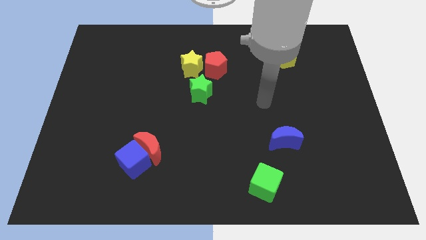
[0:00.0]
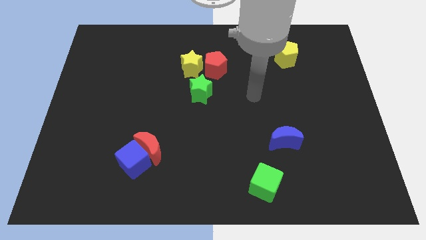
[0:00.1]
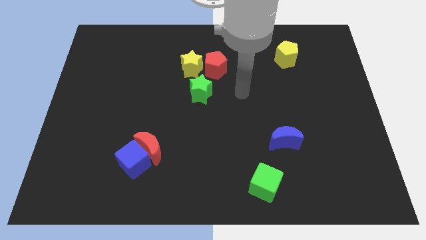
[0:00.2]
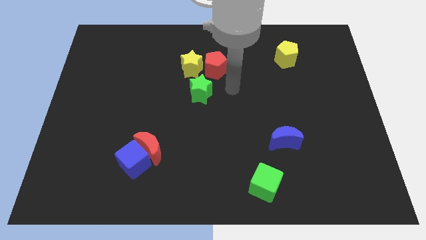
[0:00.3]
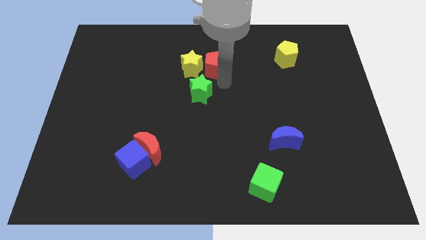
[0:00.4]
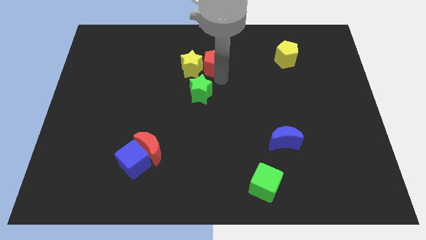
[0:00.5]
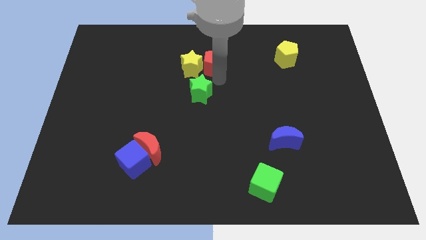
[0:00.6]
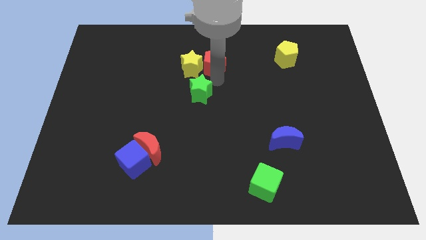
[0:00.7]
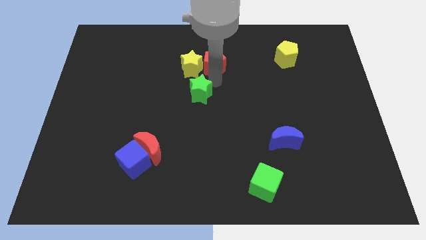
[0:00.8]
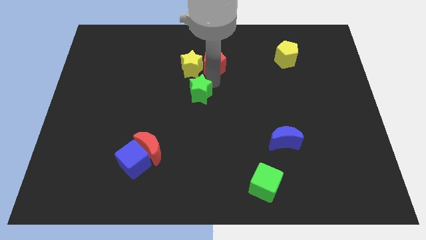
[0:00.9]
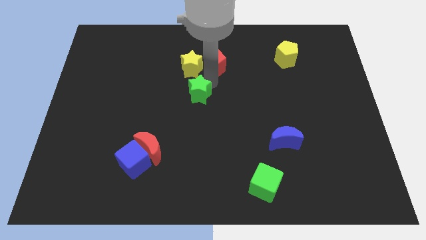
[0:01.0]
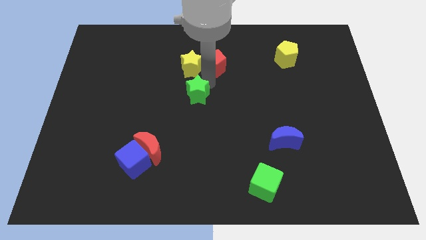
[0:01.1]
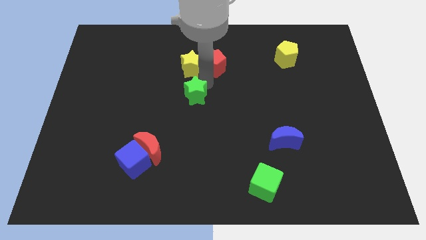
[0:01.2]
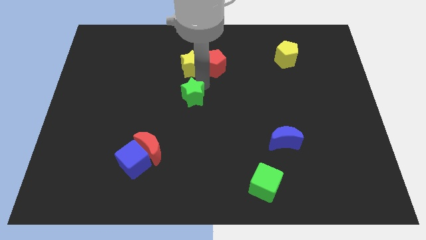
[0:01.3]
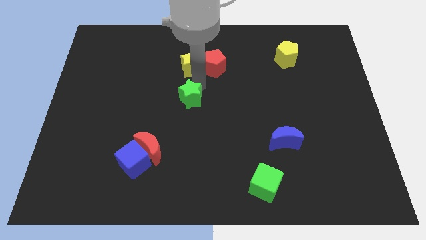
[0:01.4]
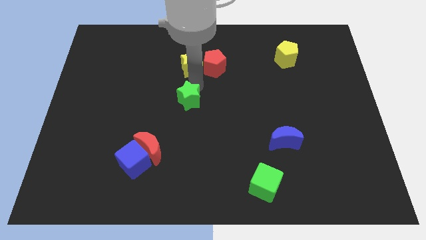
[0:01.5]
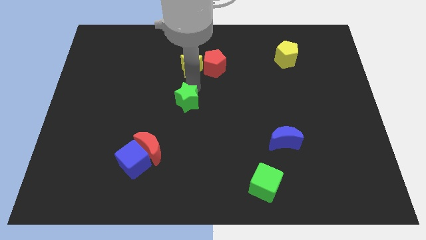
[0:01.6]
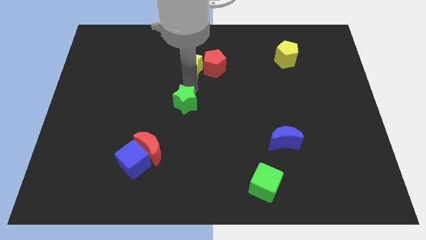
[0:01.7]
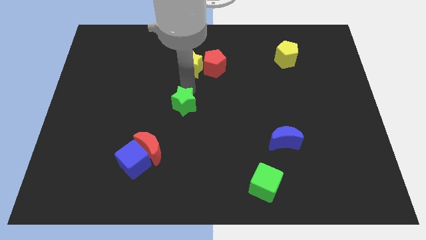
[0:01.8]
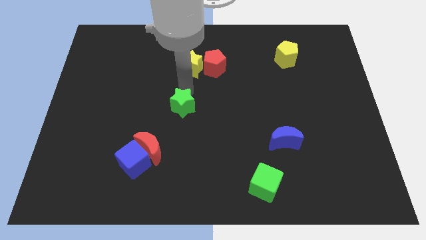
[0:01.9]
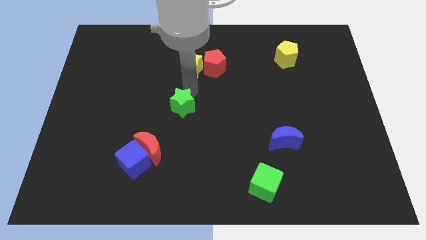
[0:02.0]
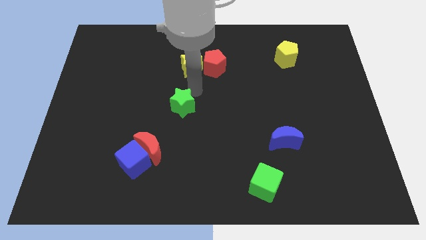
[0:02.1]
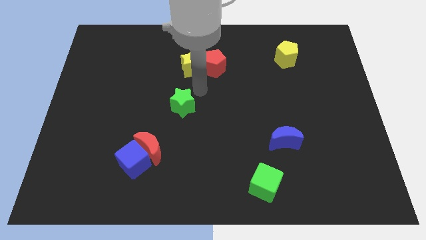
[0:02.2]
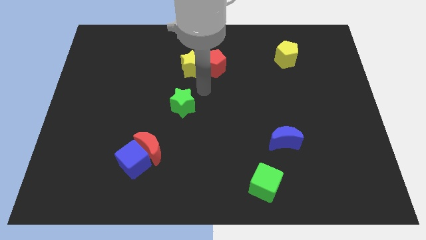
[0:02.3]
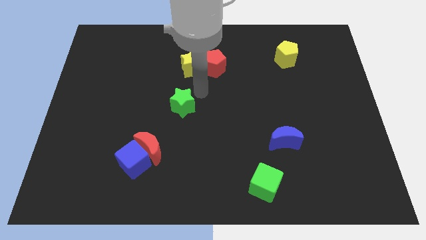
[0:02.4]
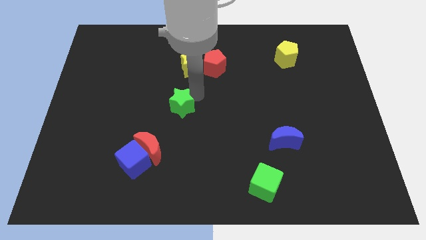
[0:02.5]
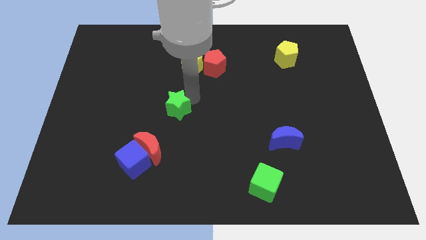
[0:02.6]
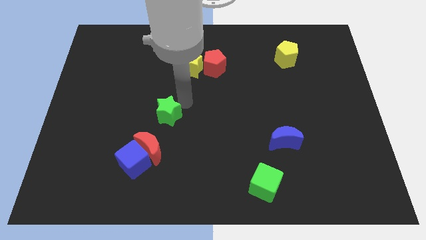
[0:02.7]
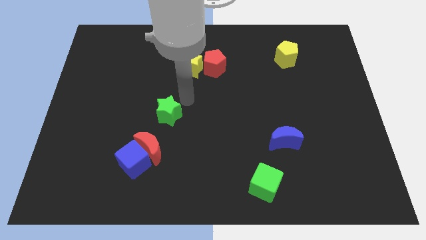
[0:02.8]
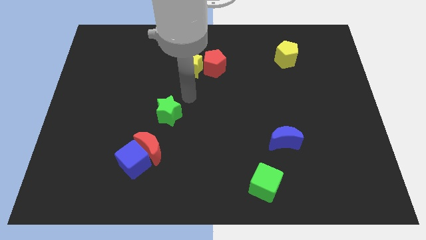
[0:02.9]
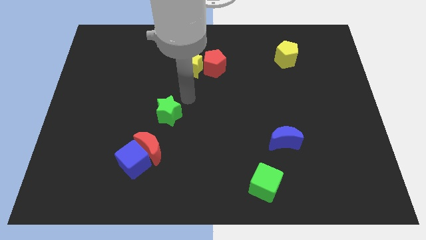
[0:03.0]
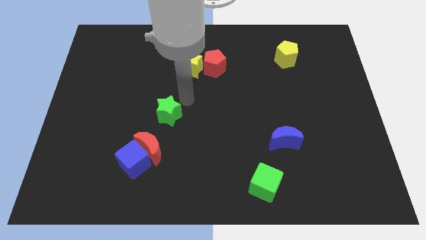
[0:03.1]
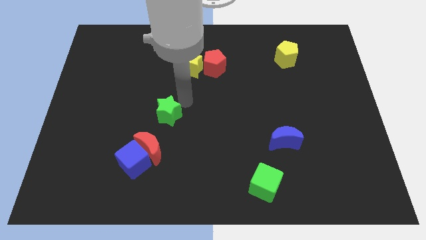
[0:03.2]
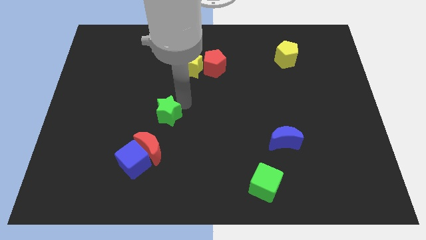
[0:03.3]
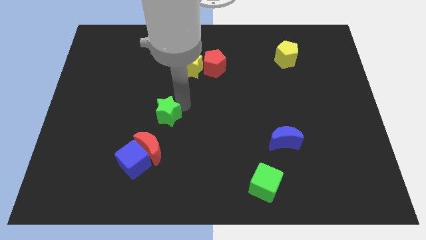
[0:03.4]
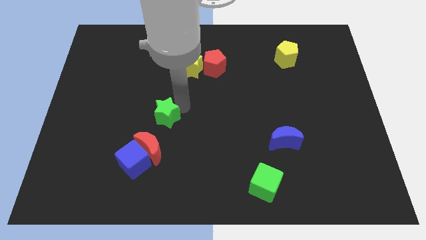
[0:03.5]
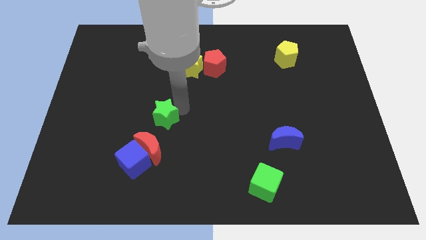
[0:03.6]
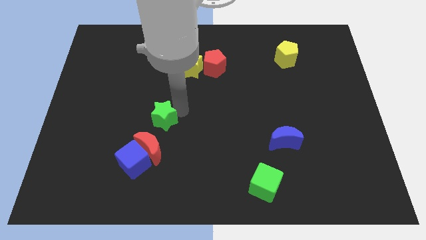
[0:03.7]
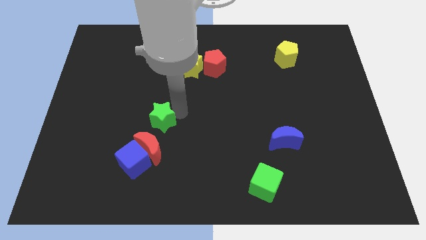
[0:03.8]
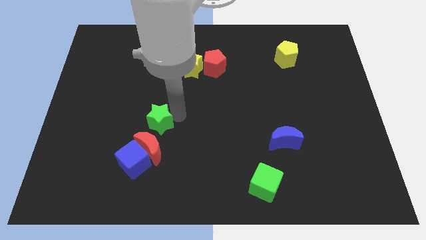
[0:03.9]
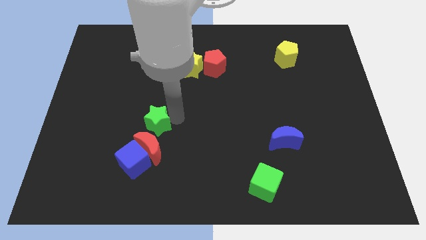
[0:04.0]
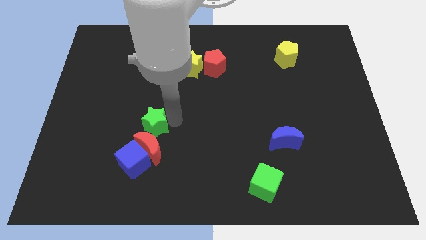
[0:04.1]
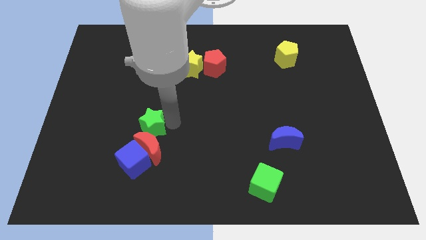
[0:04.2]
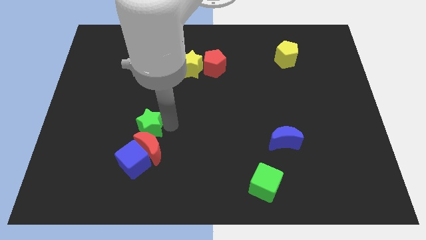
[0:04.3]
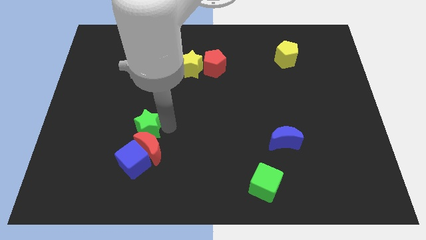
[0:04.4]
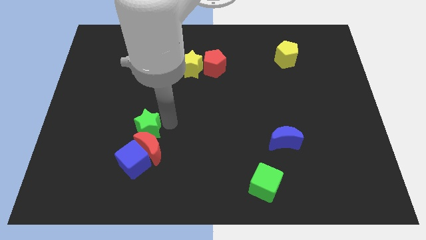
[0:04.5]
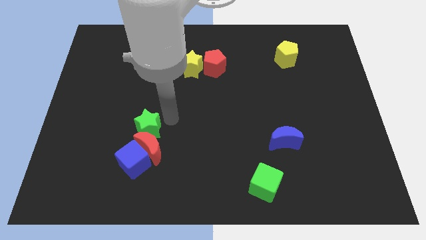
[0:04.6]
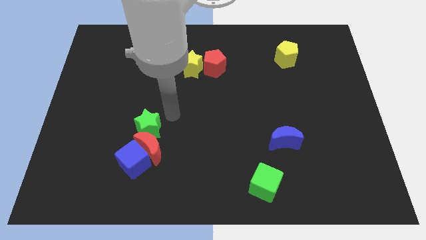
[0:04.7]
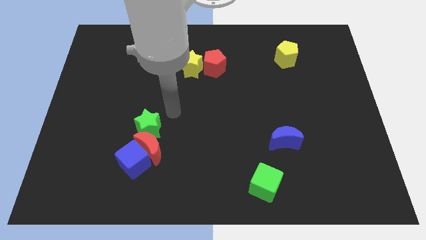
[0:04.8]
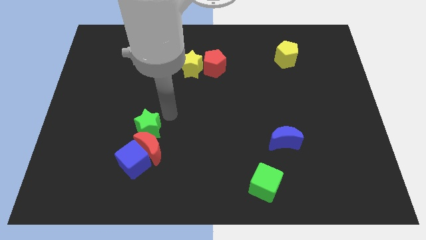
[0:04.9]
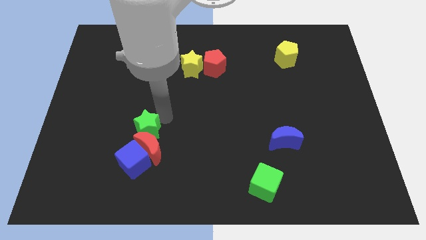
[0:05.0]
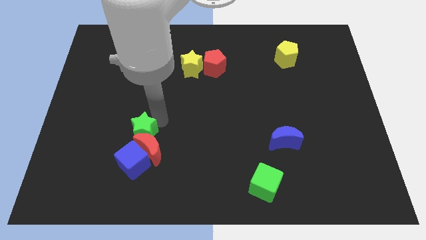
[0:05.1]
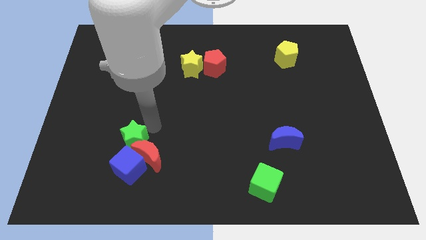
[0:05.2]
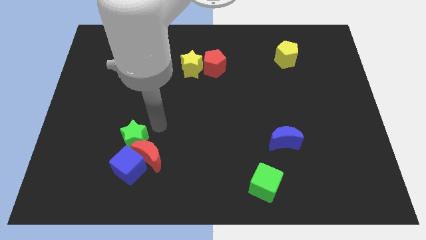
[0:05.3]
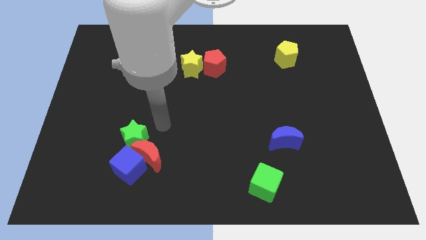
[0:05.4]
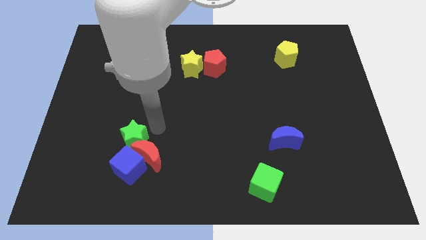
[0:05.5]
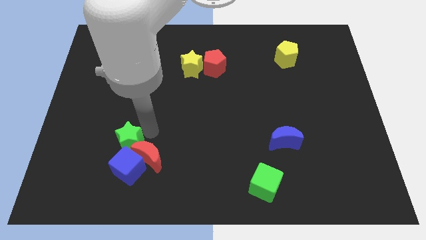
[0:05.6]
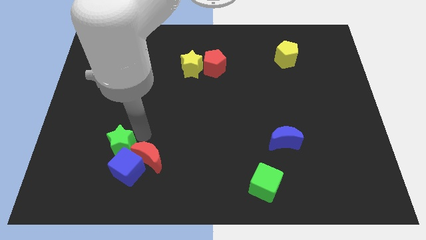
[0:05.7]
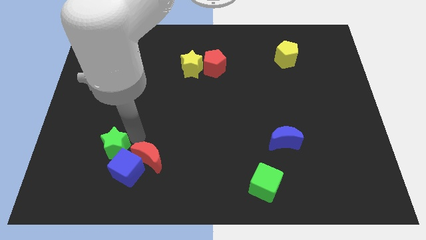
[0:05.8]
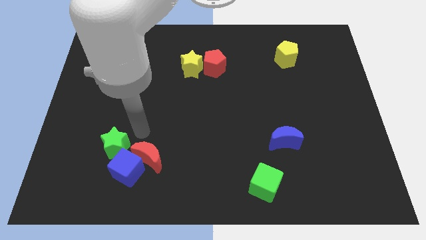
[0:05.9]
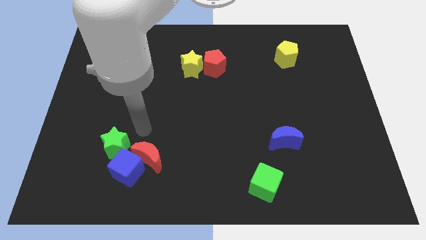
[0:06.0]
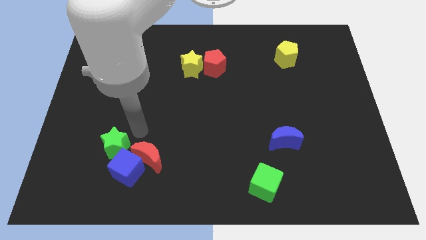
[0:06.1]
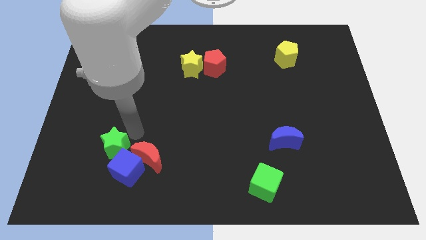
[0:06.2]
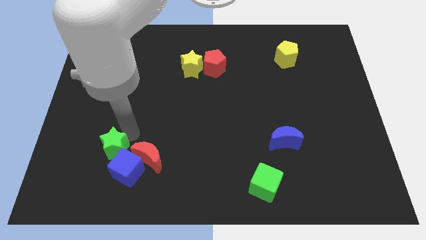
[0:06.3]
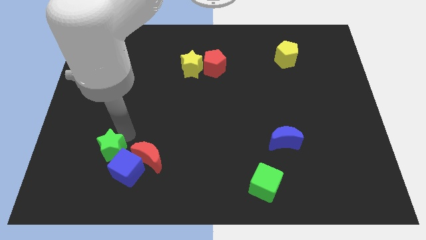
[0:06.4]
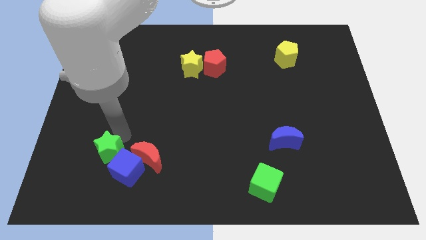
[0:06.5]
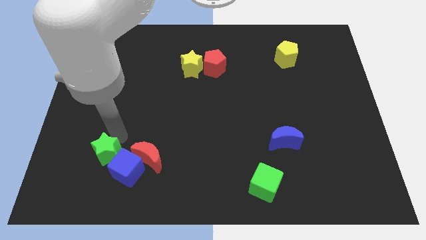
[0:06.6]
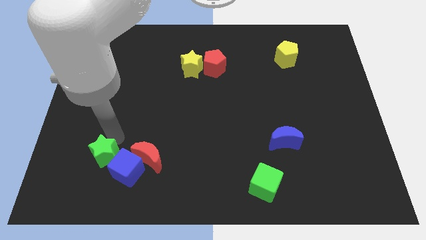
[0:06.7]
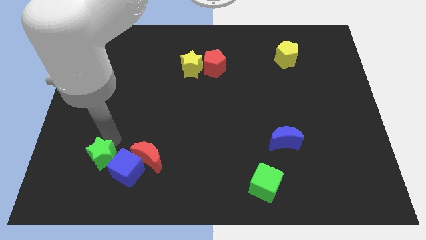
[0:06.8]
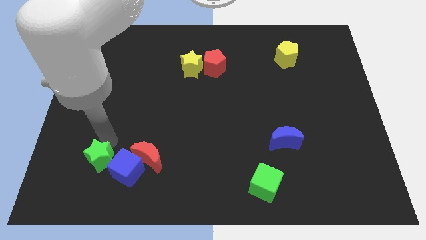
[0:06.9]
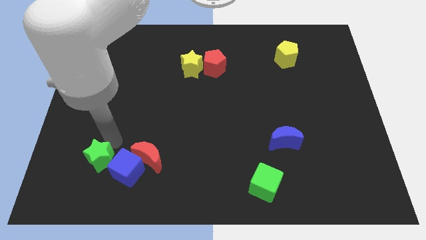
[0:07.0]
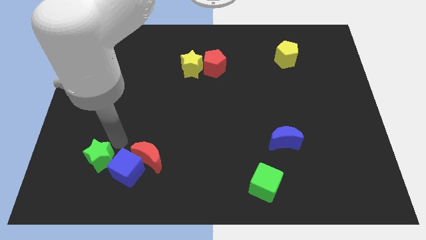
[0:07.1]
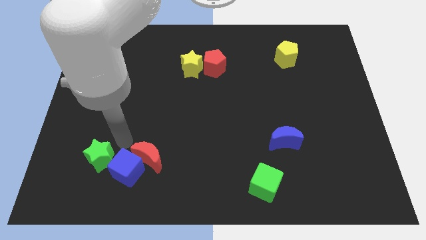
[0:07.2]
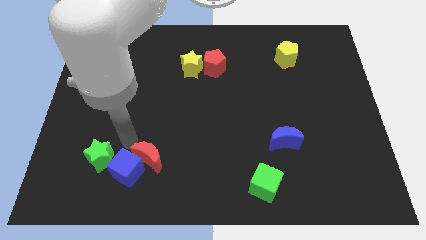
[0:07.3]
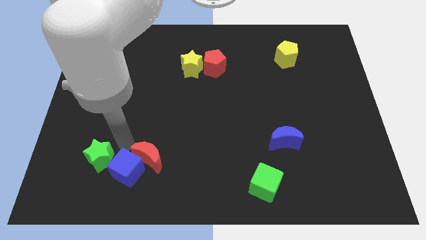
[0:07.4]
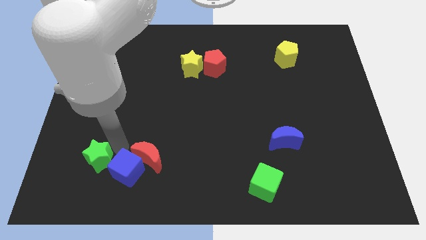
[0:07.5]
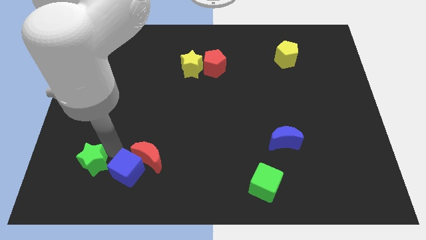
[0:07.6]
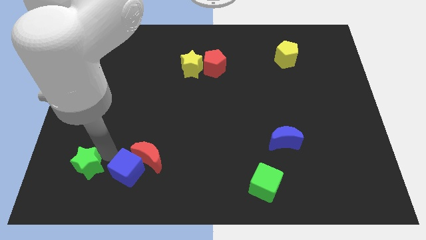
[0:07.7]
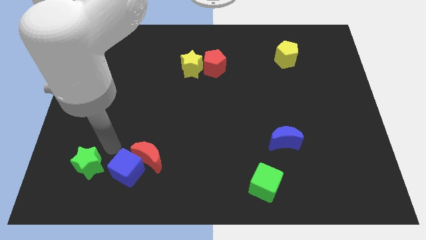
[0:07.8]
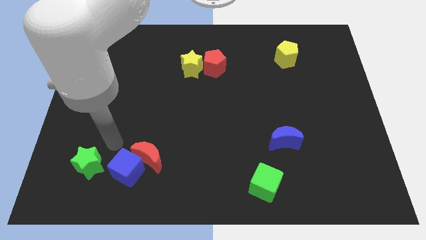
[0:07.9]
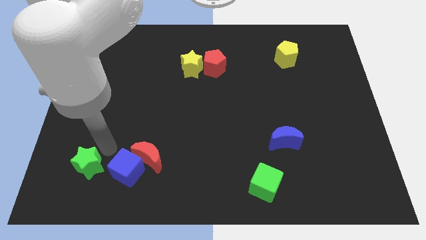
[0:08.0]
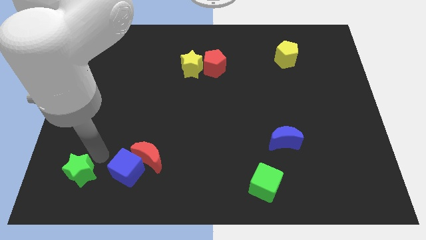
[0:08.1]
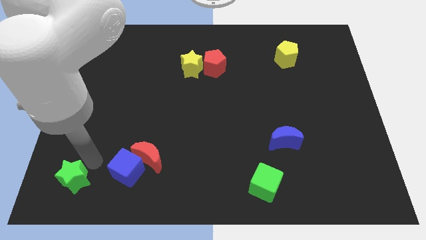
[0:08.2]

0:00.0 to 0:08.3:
move the green star to the bottom left of the board
